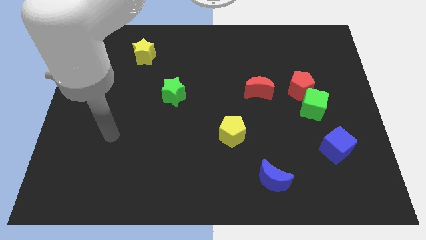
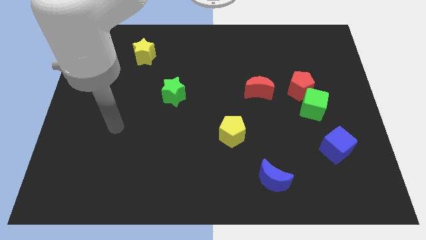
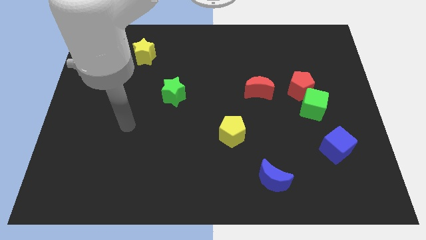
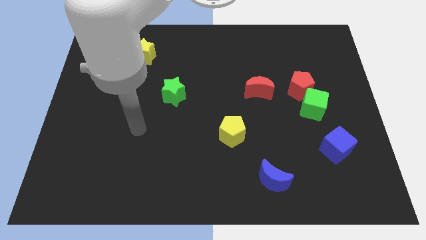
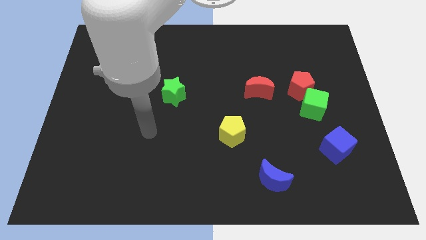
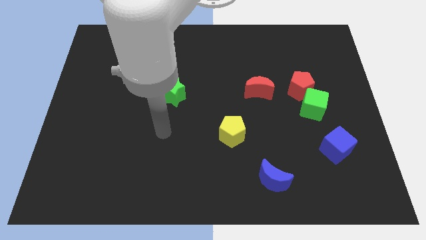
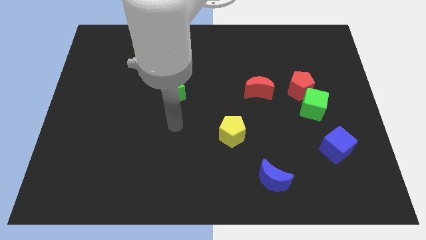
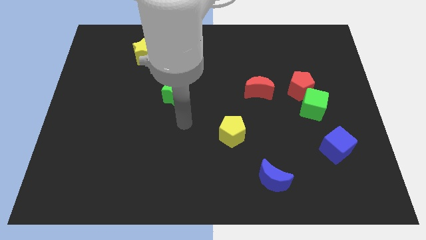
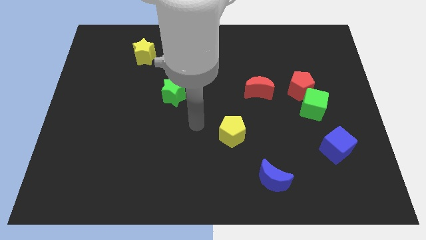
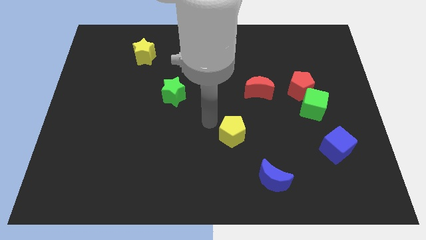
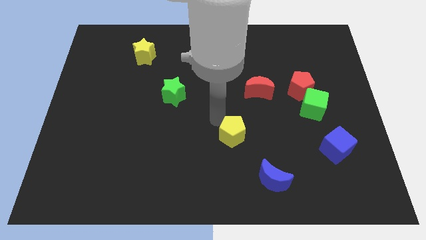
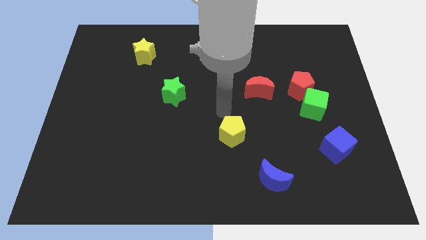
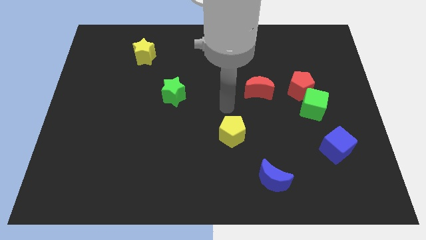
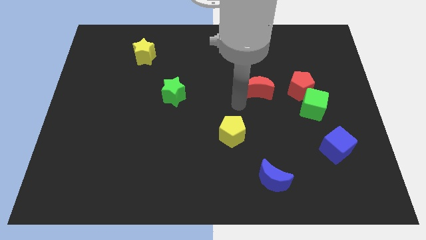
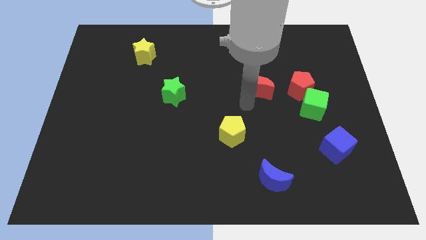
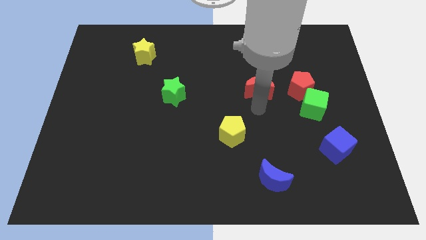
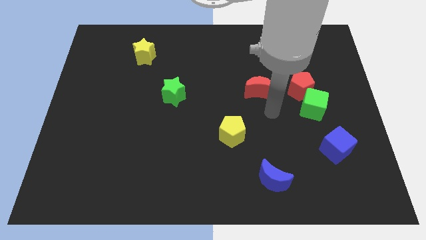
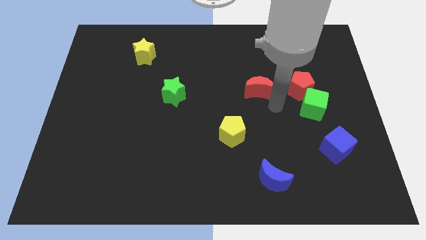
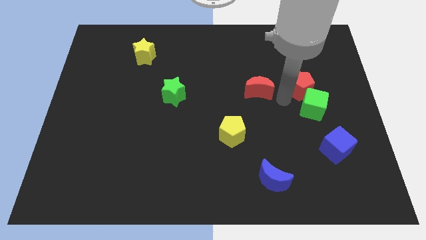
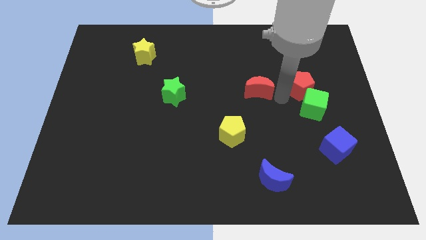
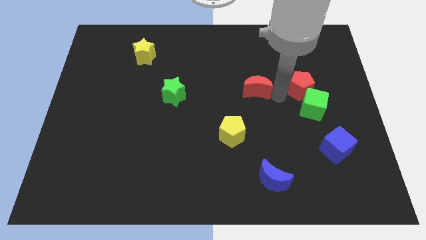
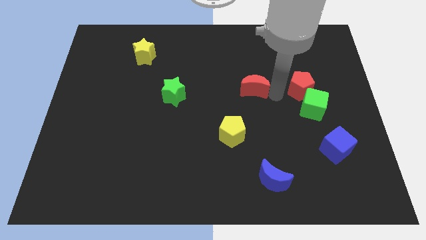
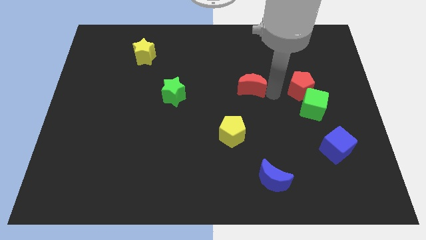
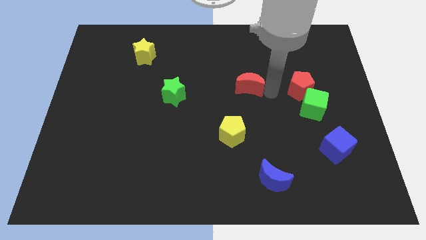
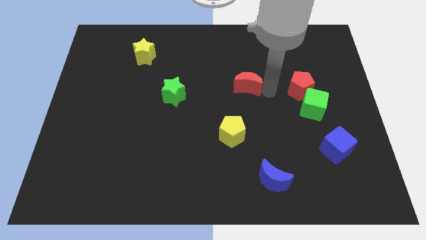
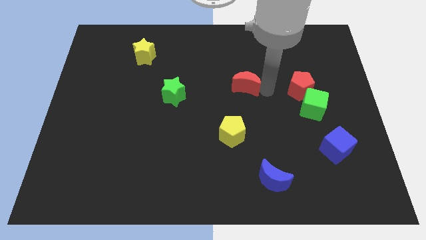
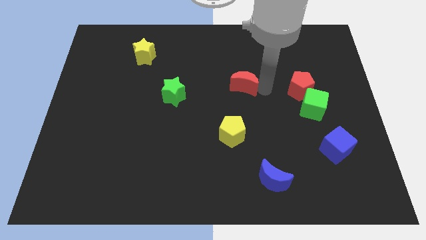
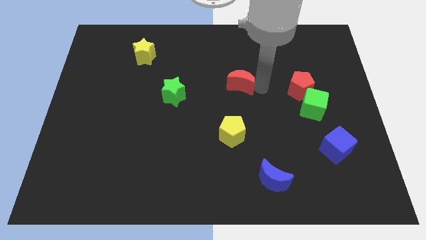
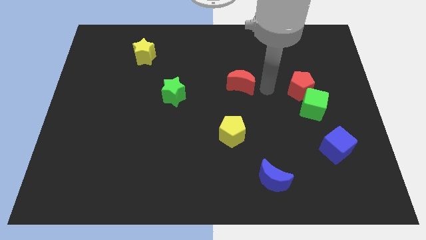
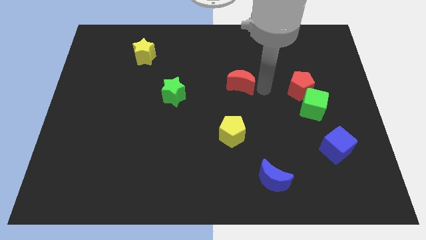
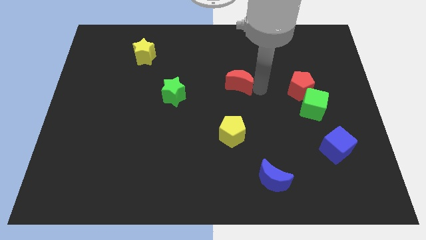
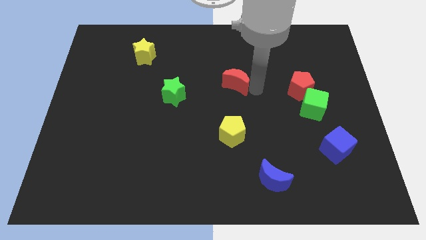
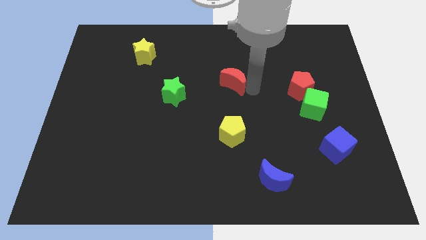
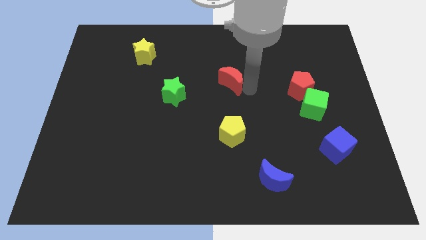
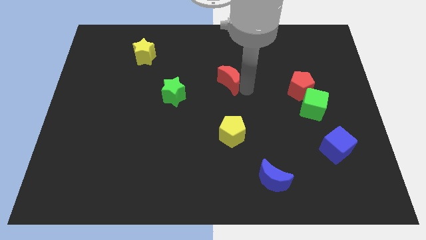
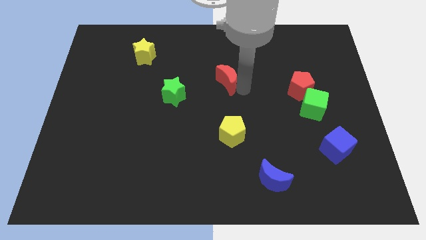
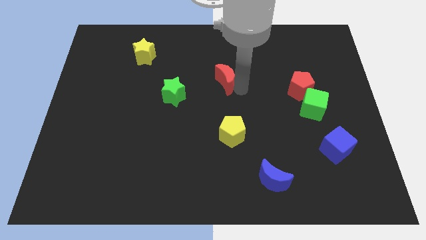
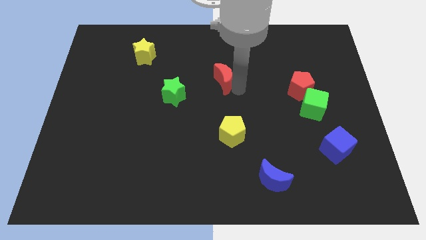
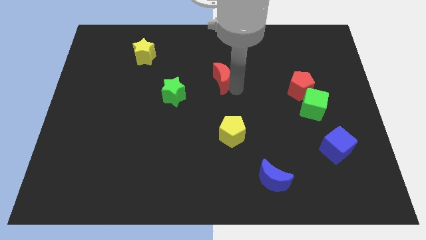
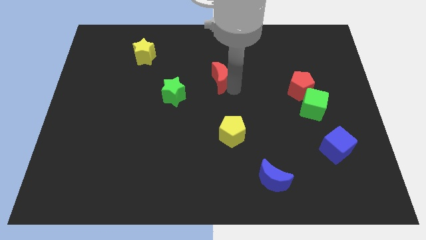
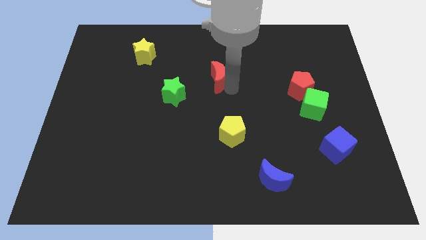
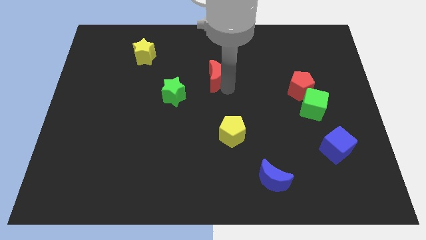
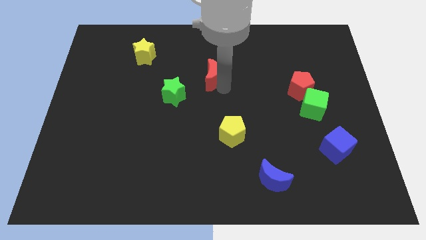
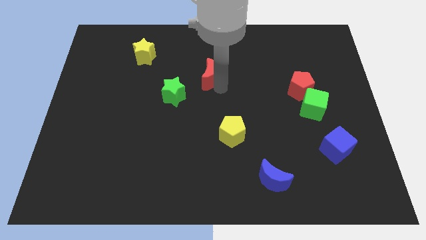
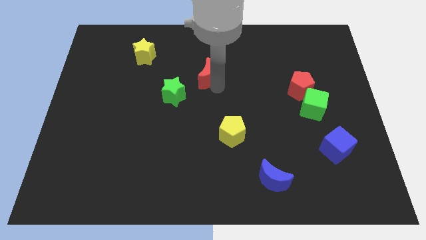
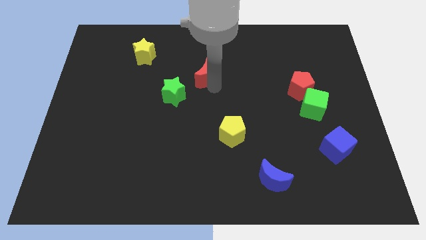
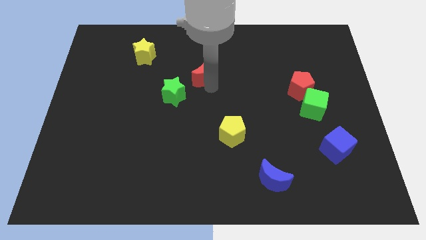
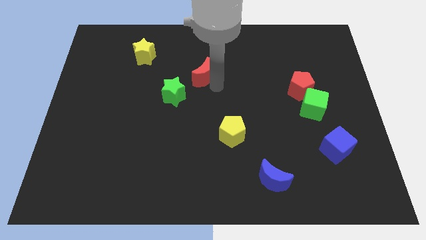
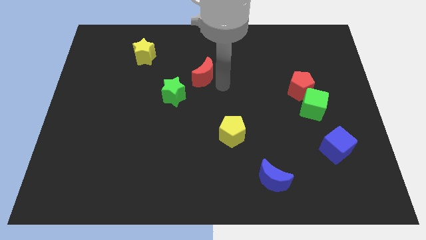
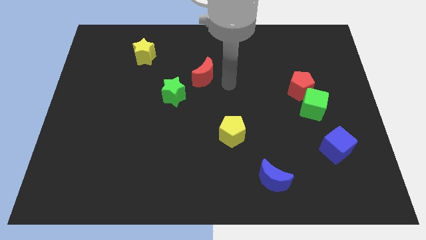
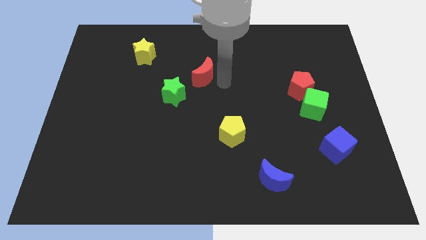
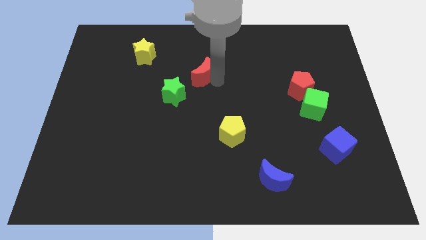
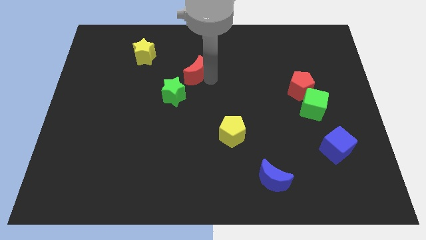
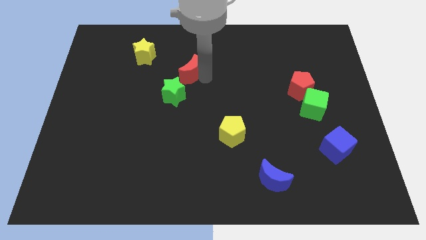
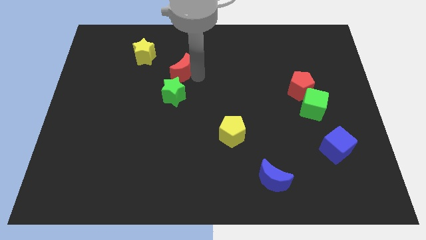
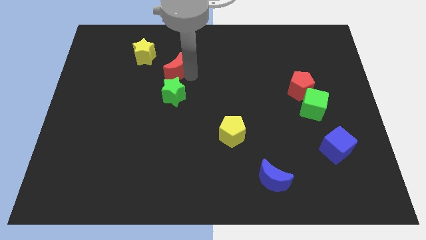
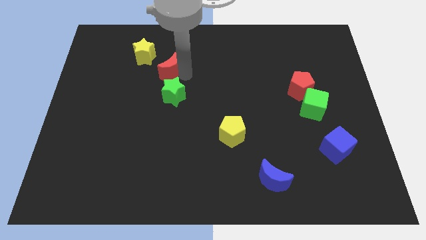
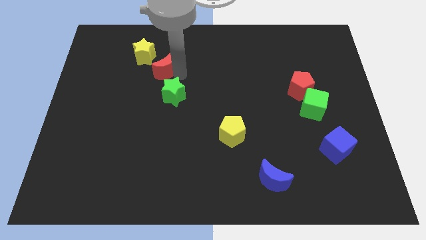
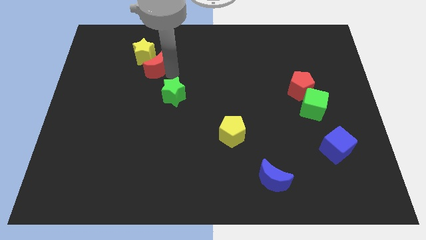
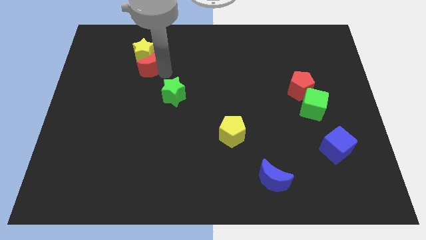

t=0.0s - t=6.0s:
slide the red moon close to the yellow star

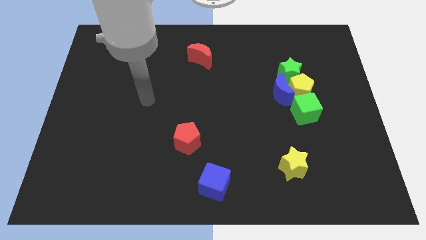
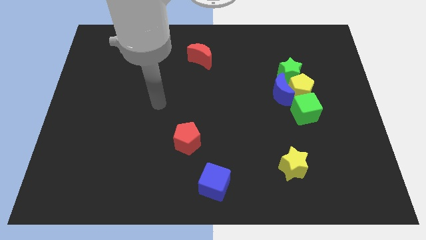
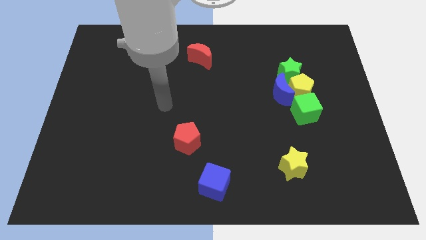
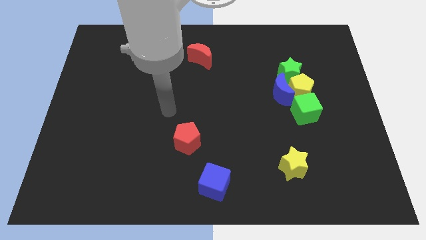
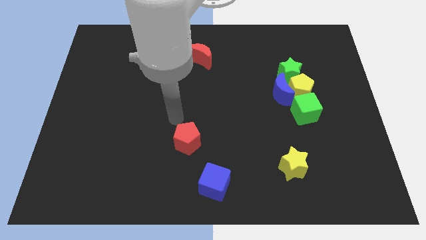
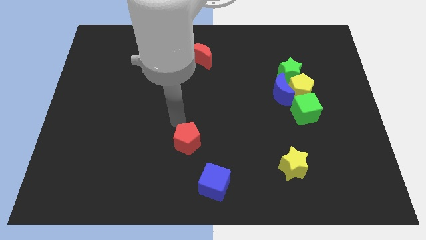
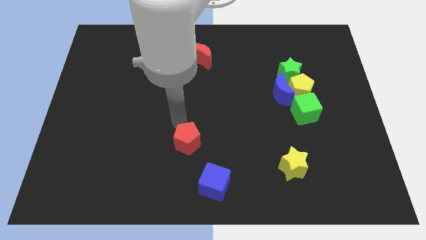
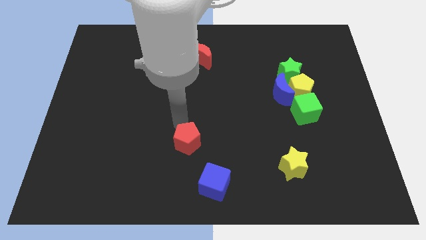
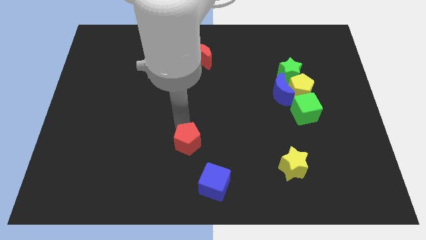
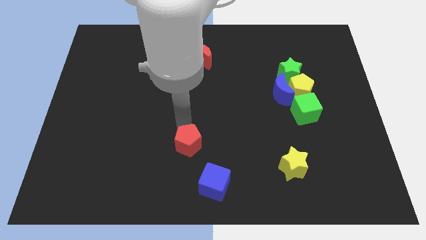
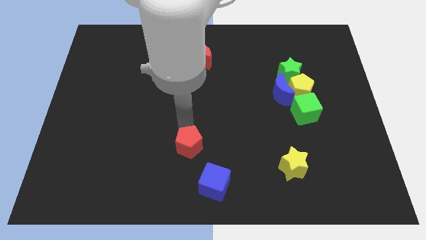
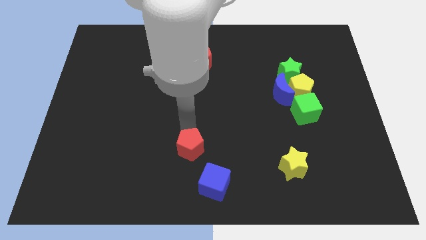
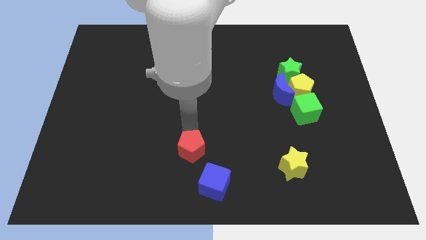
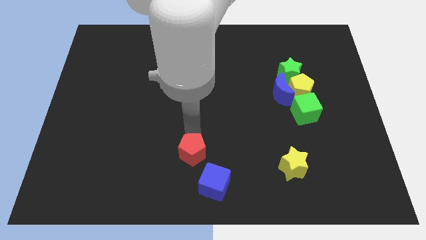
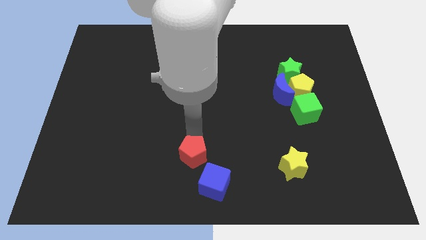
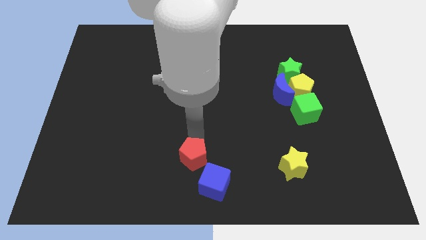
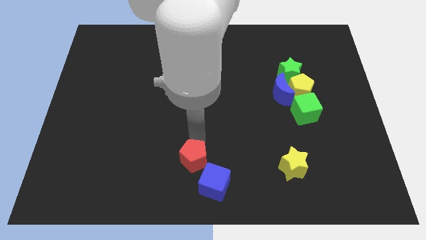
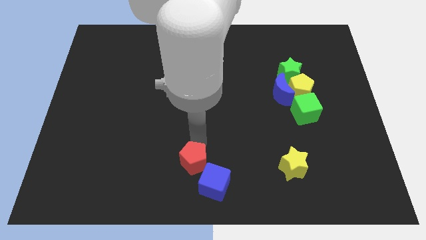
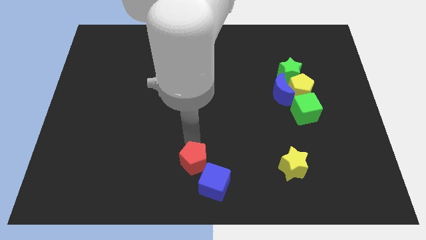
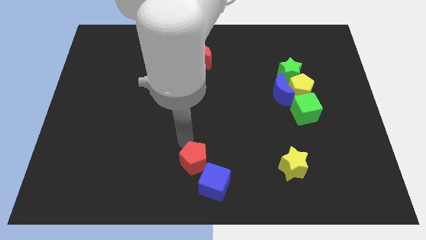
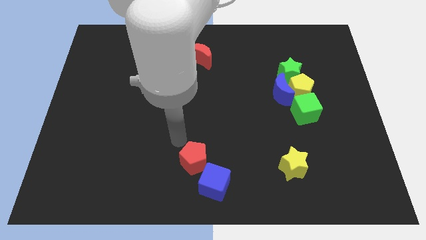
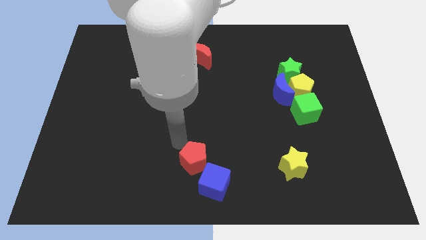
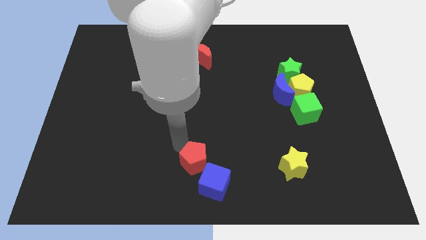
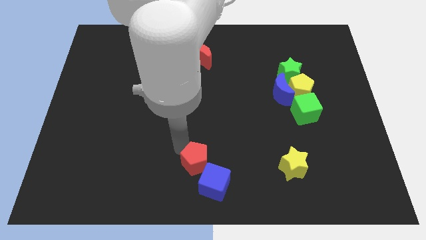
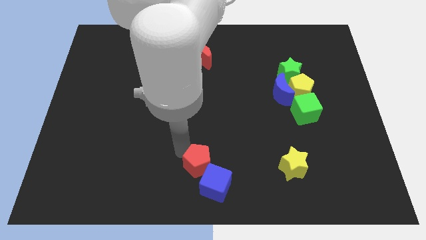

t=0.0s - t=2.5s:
move the red pentagon towards the blue cube
